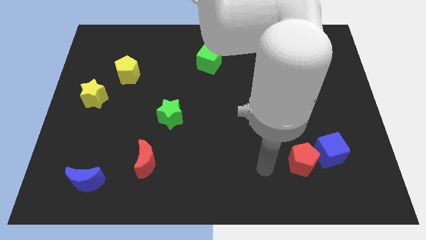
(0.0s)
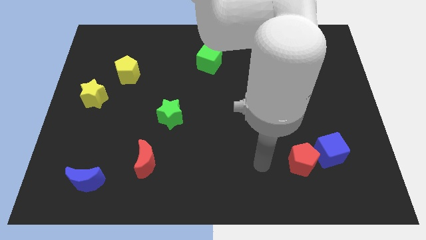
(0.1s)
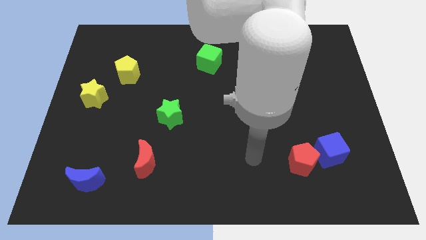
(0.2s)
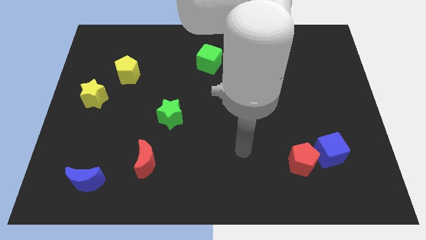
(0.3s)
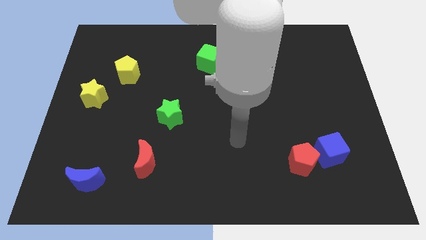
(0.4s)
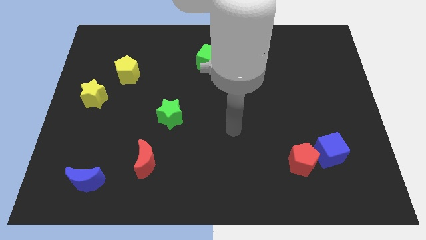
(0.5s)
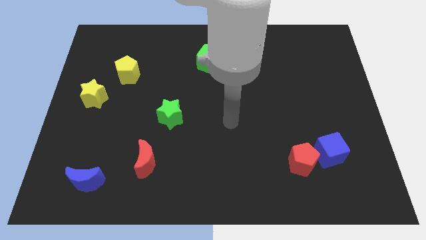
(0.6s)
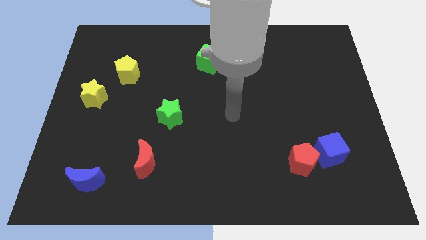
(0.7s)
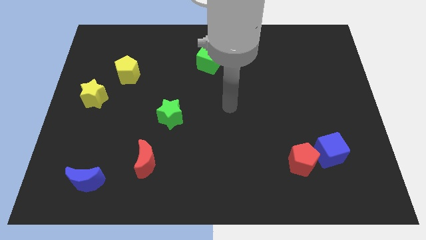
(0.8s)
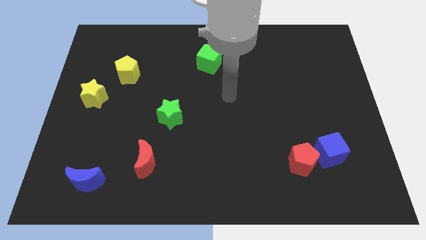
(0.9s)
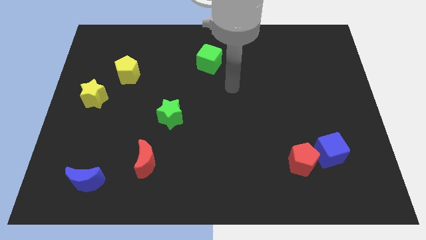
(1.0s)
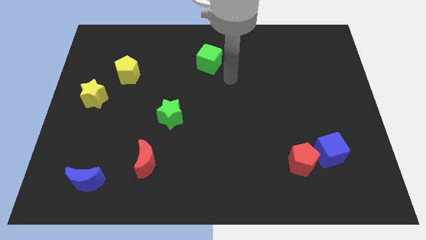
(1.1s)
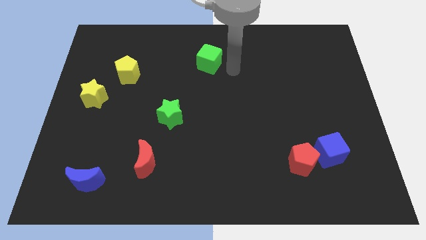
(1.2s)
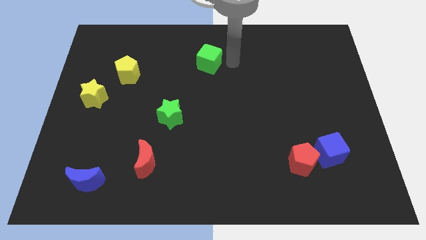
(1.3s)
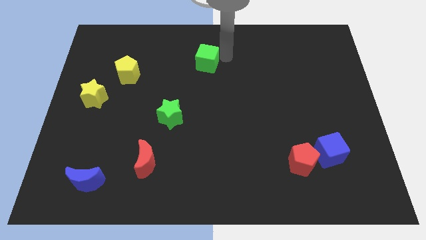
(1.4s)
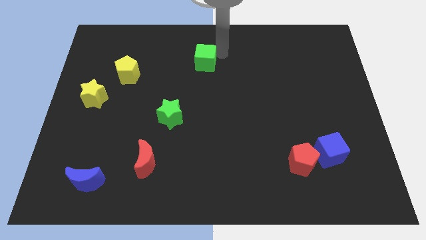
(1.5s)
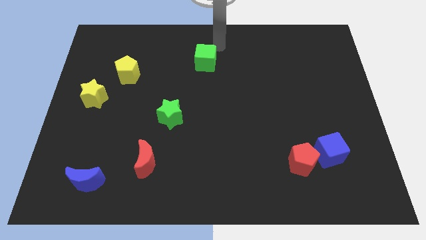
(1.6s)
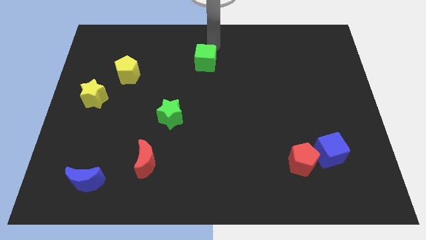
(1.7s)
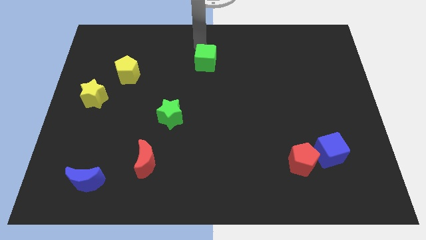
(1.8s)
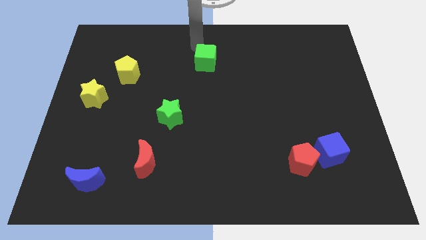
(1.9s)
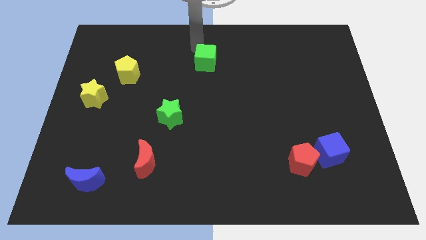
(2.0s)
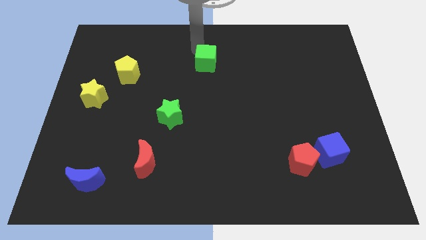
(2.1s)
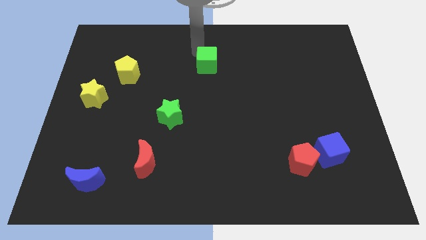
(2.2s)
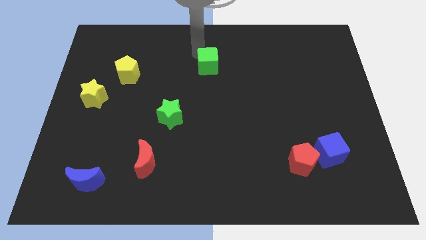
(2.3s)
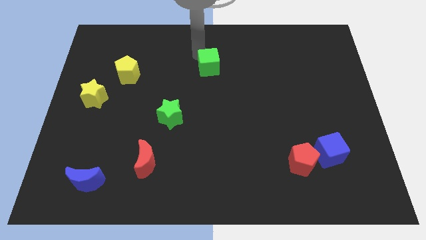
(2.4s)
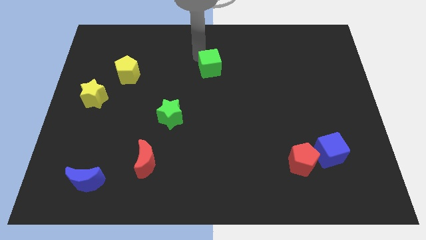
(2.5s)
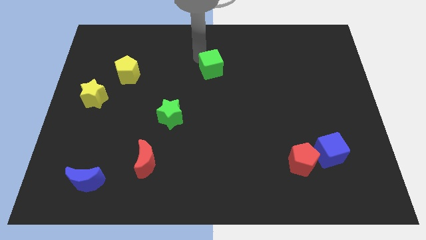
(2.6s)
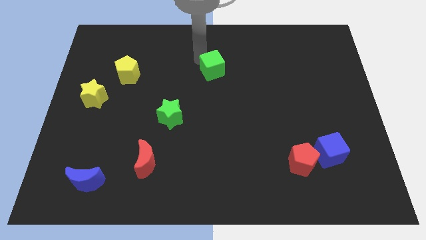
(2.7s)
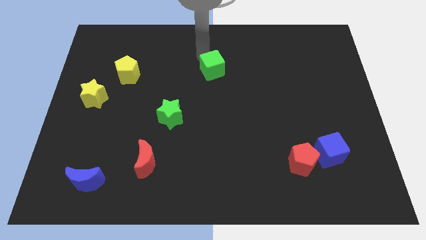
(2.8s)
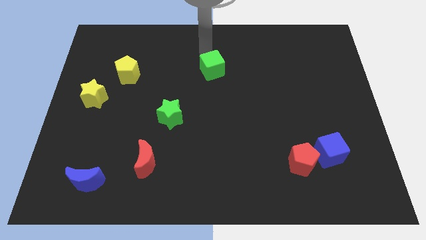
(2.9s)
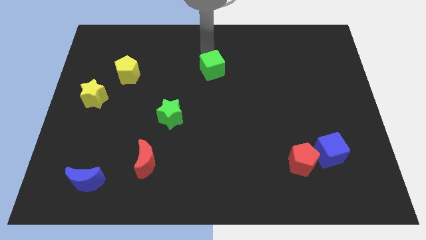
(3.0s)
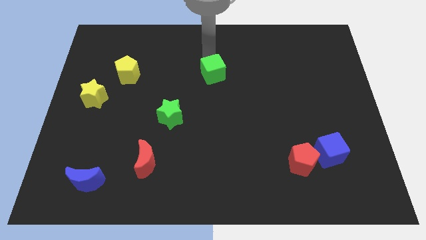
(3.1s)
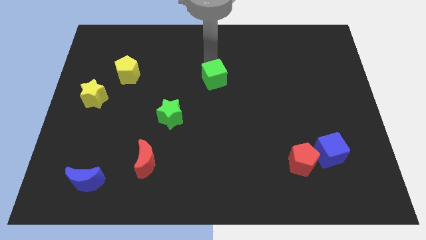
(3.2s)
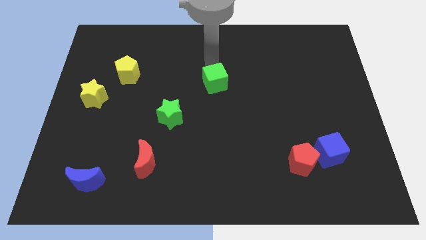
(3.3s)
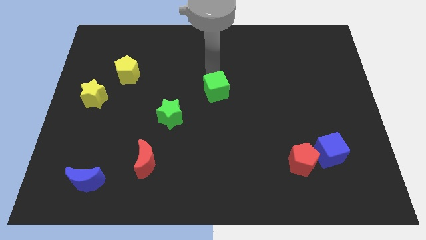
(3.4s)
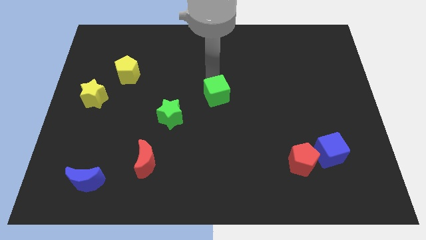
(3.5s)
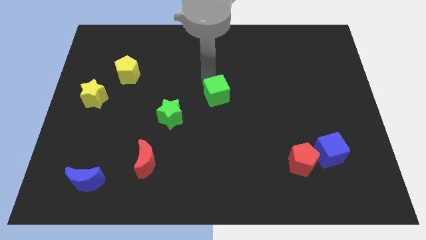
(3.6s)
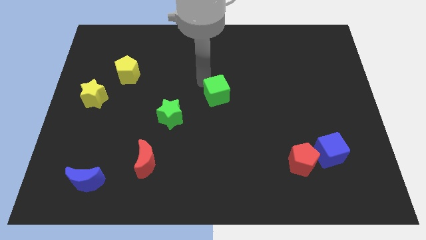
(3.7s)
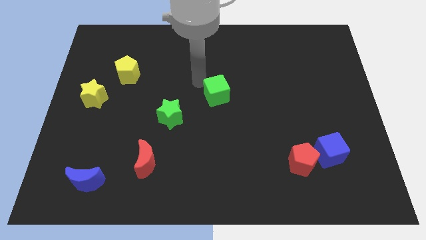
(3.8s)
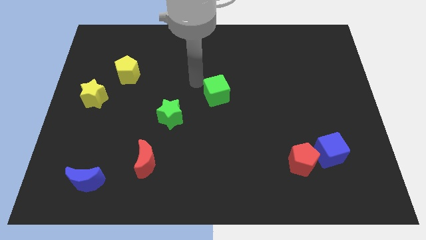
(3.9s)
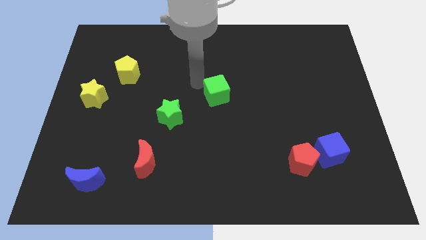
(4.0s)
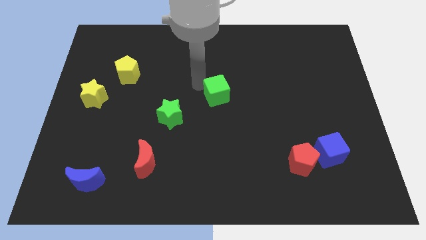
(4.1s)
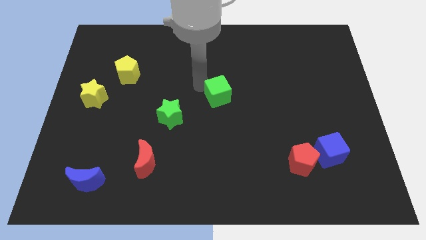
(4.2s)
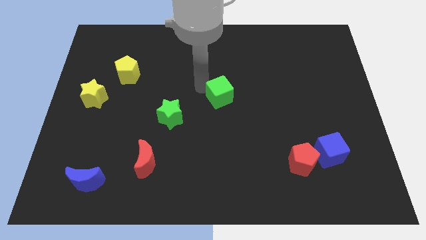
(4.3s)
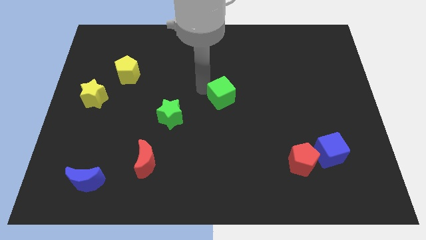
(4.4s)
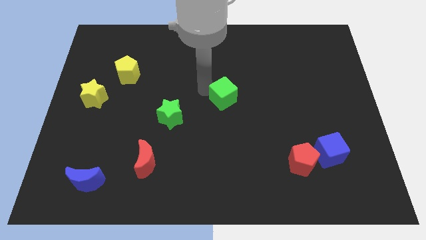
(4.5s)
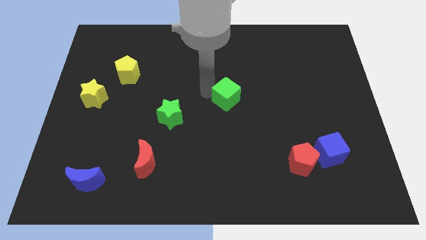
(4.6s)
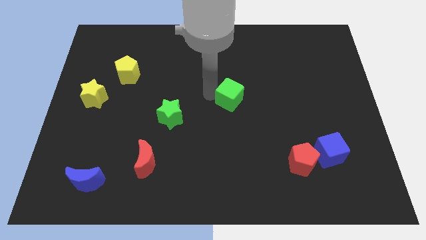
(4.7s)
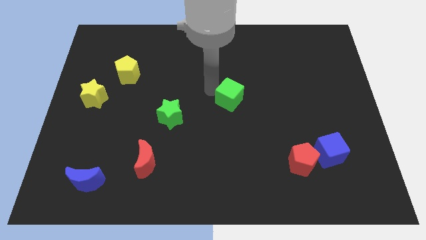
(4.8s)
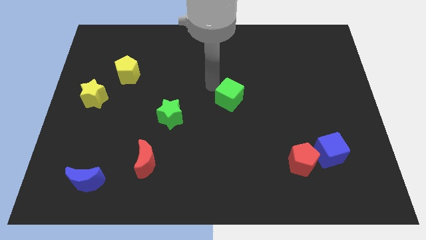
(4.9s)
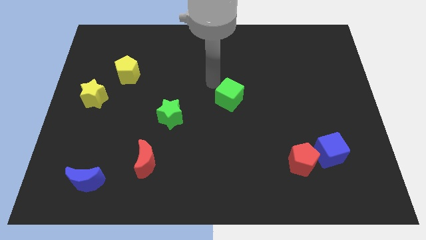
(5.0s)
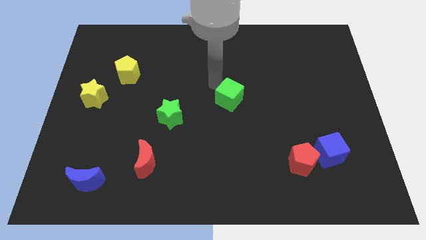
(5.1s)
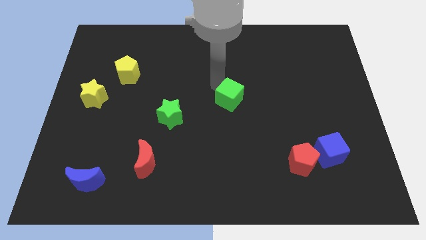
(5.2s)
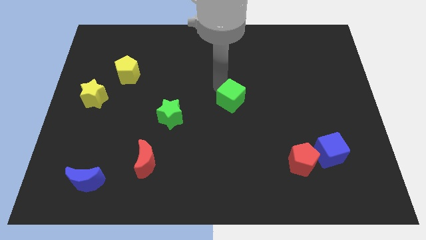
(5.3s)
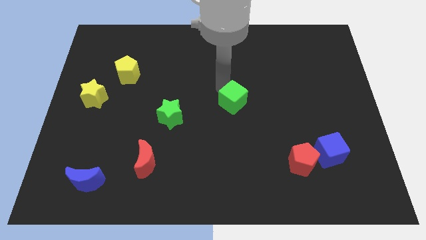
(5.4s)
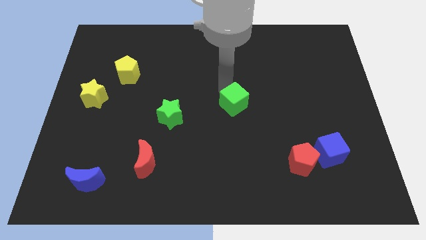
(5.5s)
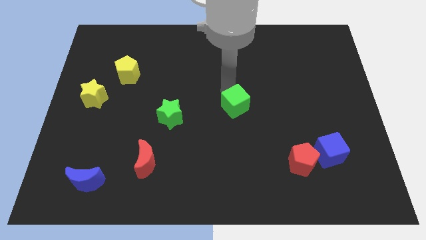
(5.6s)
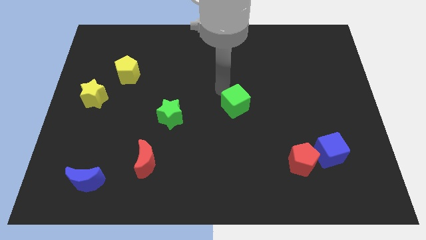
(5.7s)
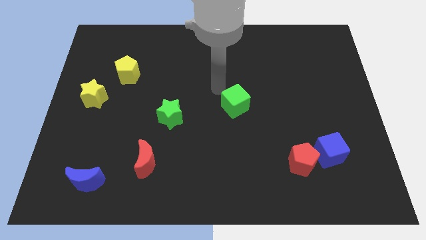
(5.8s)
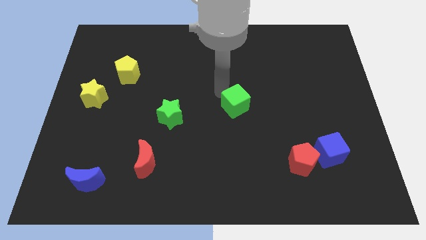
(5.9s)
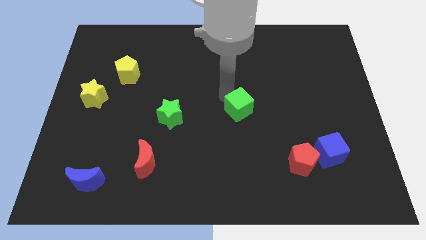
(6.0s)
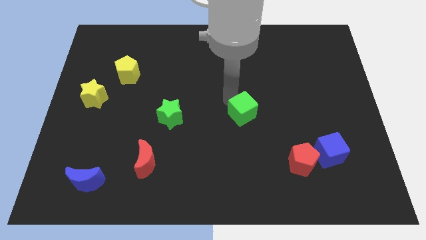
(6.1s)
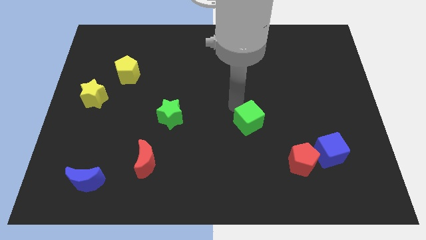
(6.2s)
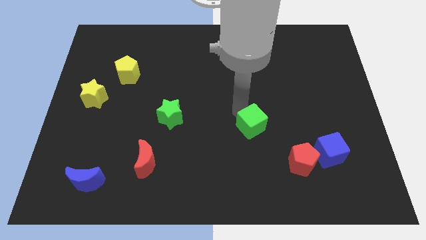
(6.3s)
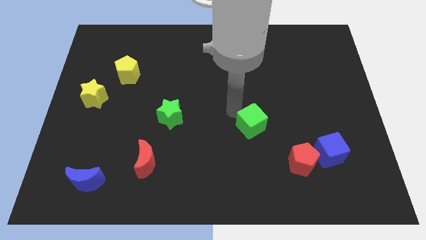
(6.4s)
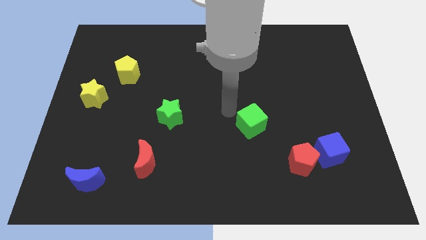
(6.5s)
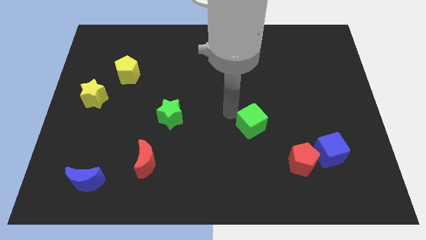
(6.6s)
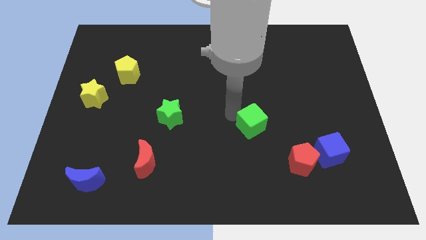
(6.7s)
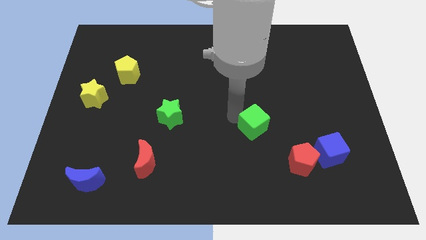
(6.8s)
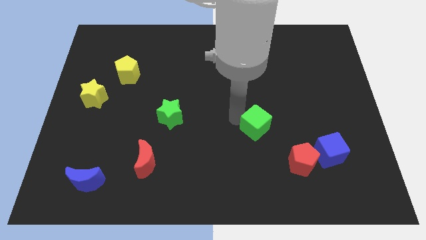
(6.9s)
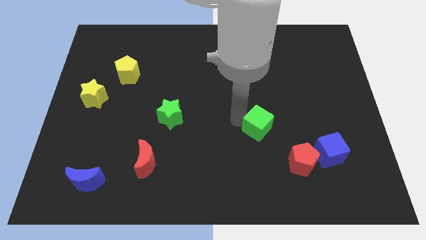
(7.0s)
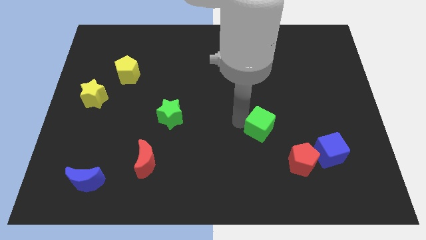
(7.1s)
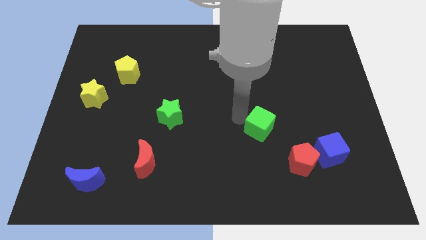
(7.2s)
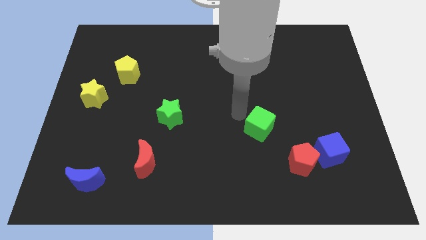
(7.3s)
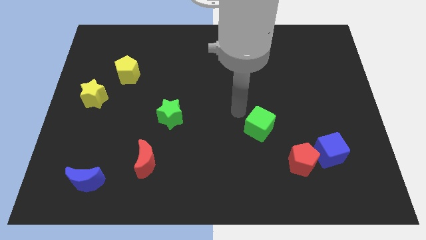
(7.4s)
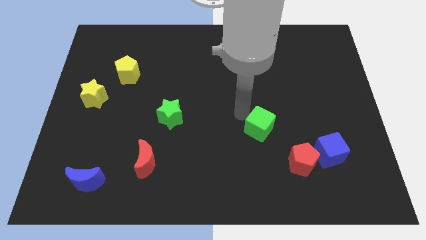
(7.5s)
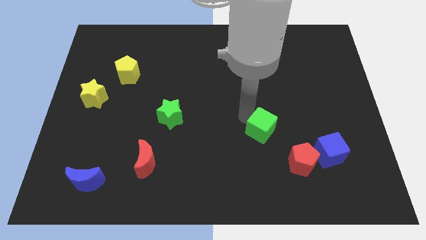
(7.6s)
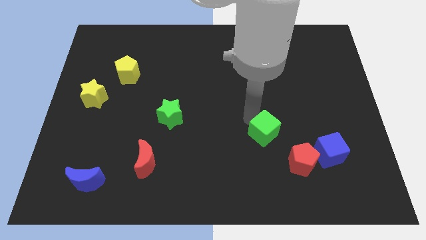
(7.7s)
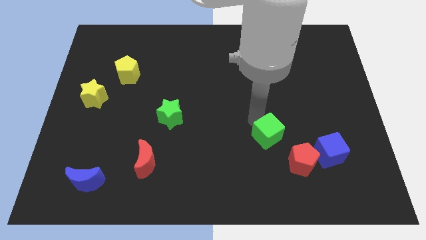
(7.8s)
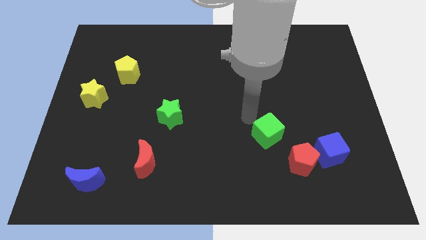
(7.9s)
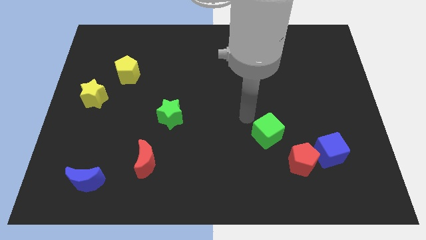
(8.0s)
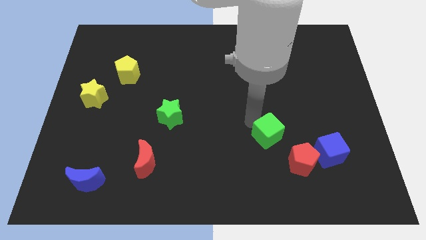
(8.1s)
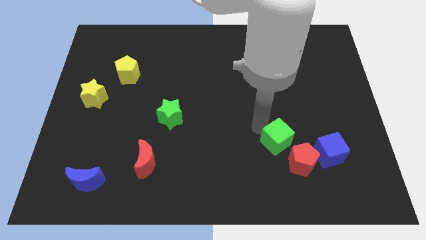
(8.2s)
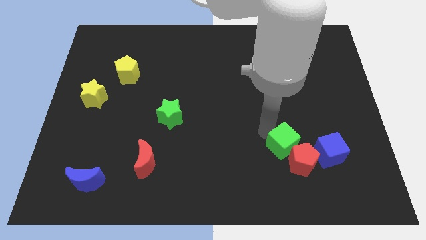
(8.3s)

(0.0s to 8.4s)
move the green cube to the red pentagon
